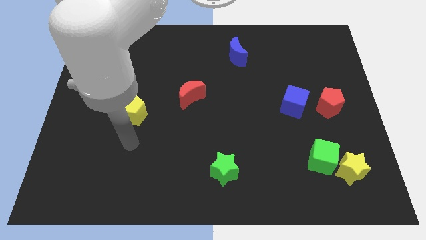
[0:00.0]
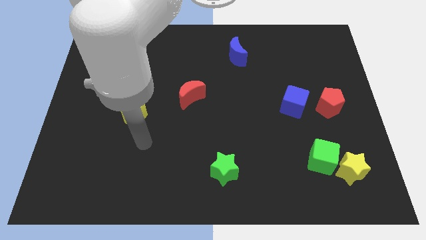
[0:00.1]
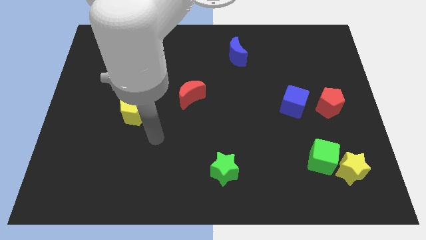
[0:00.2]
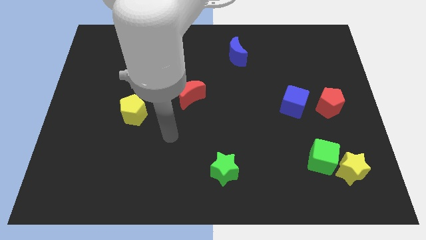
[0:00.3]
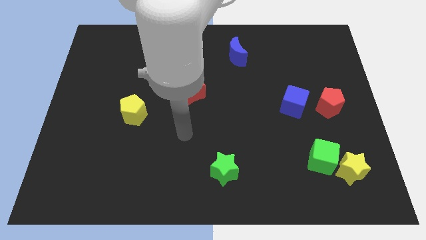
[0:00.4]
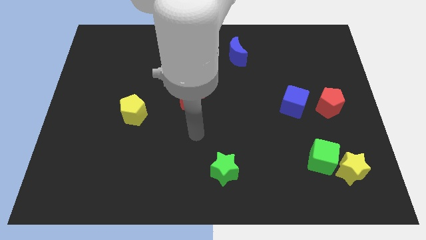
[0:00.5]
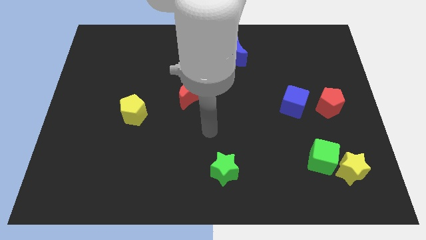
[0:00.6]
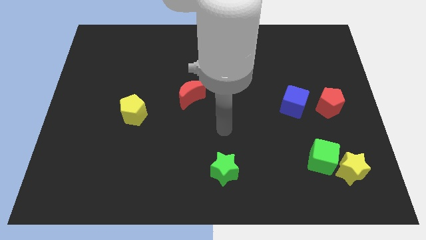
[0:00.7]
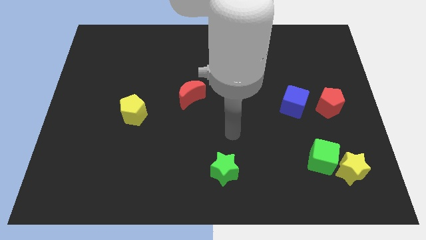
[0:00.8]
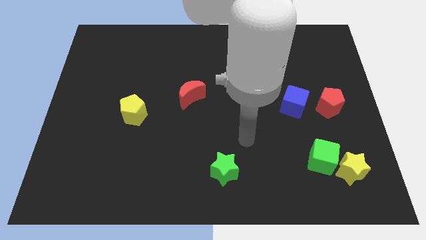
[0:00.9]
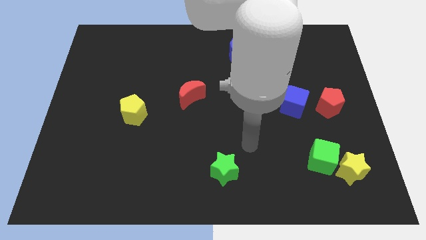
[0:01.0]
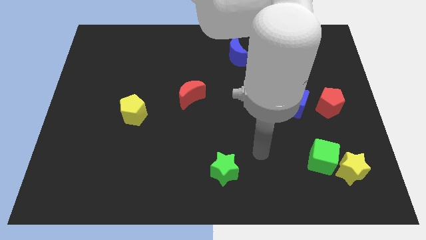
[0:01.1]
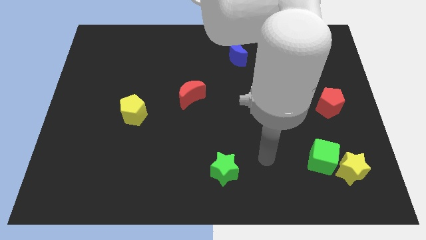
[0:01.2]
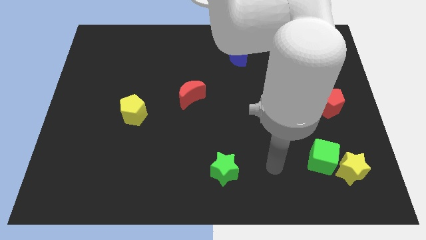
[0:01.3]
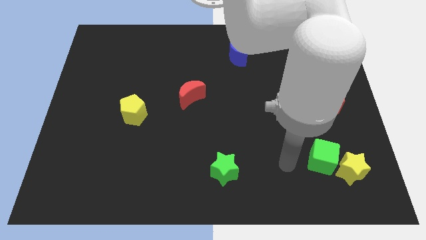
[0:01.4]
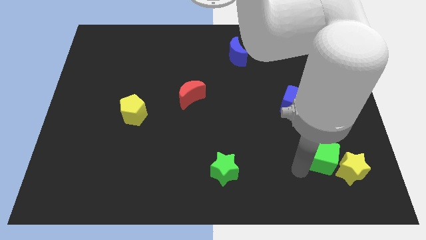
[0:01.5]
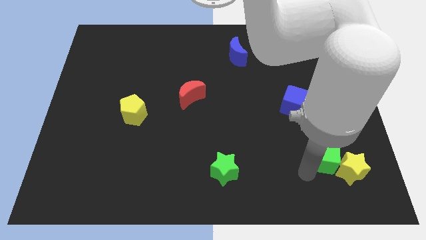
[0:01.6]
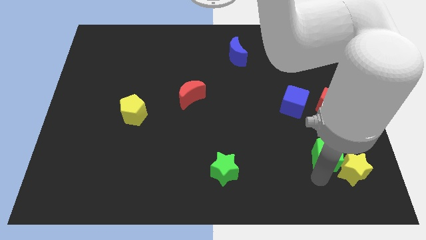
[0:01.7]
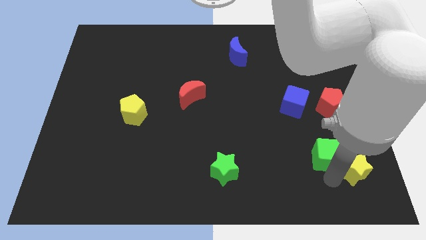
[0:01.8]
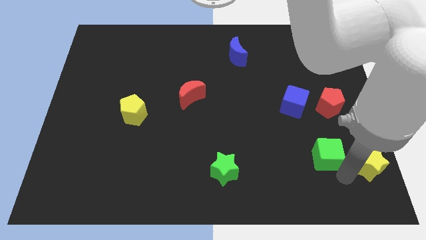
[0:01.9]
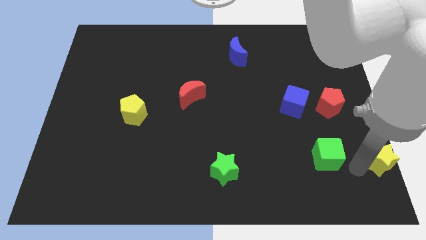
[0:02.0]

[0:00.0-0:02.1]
pull the green cube apart from the yellow star

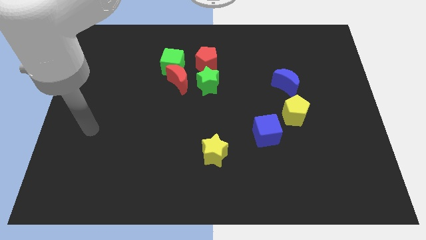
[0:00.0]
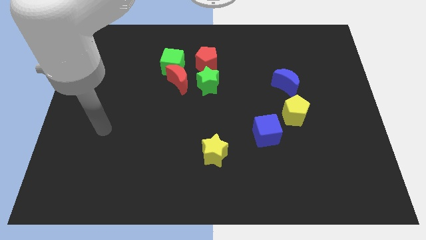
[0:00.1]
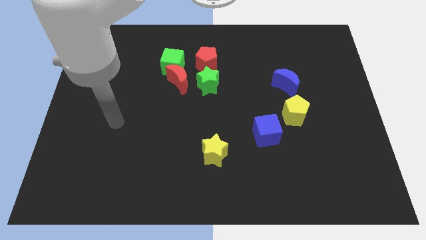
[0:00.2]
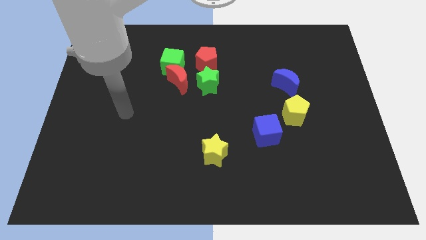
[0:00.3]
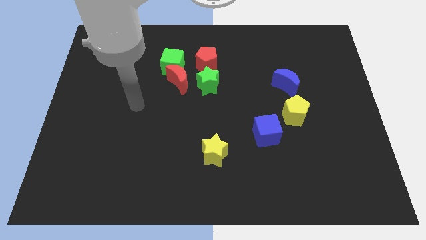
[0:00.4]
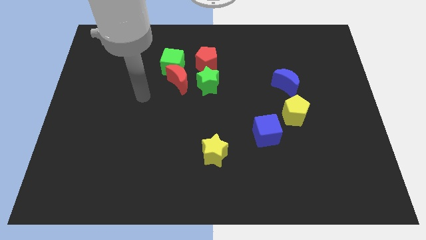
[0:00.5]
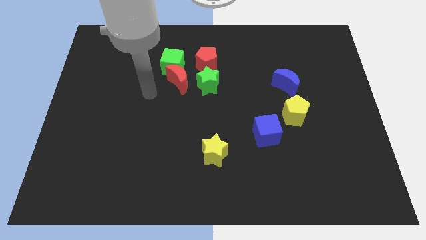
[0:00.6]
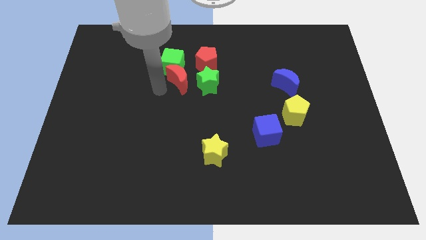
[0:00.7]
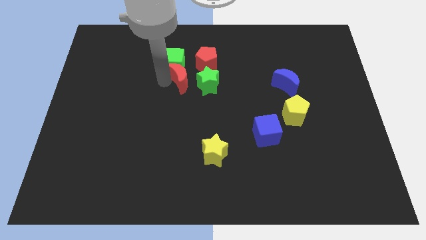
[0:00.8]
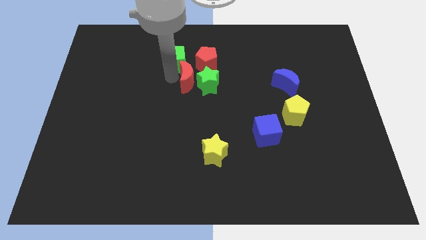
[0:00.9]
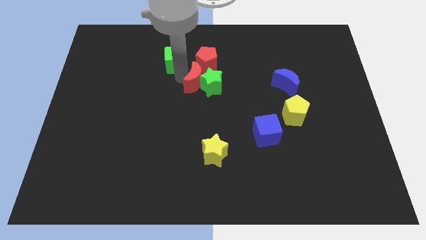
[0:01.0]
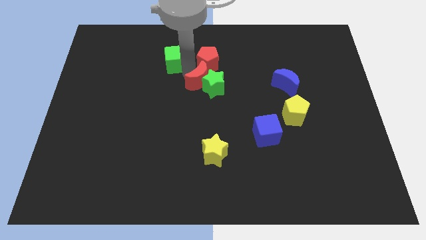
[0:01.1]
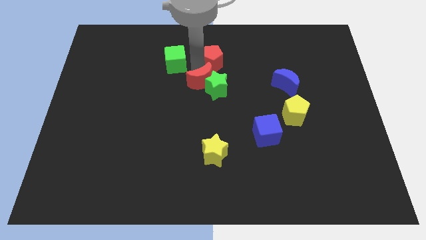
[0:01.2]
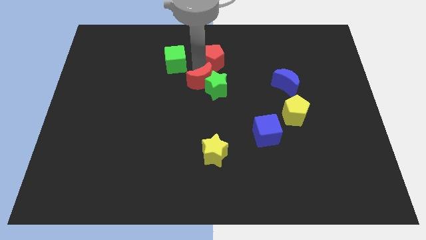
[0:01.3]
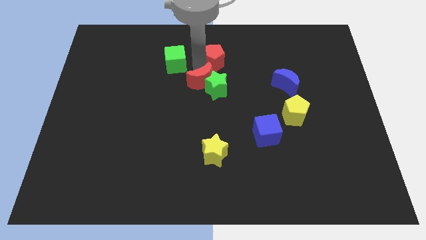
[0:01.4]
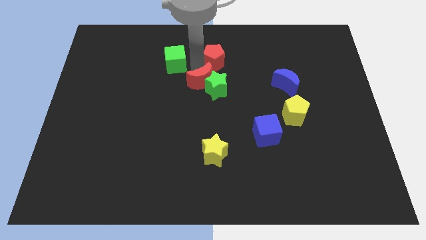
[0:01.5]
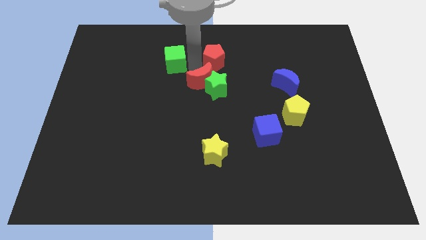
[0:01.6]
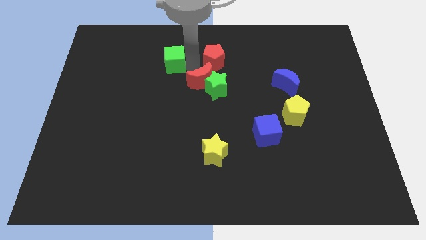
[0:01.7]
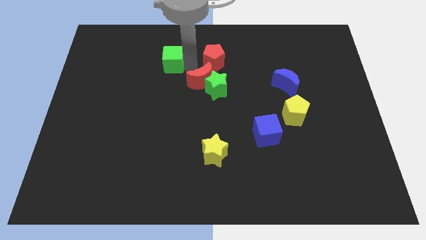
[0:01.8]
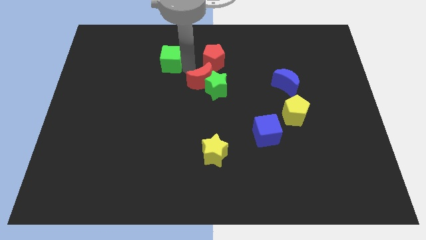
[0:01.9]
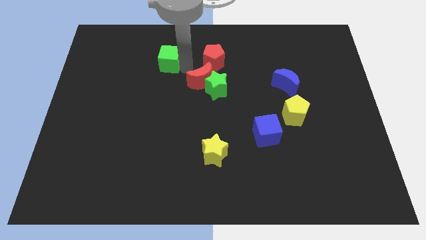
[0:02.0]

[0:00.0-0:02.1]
separate the green cube from the red moon and red pentagon

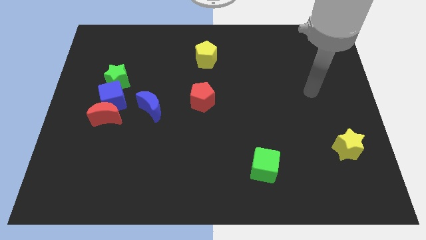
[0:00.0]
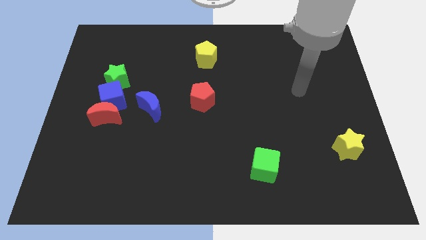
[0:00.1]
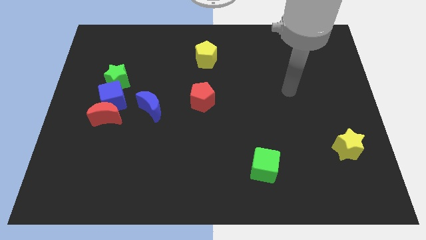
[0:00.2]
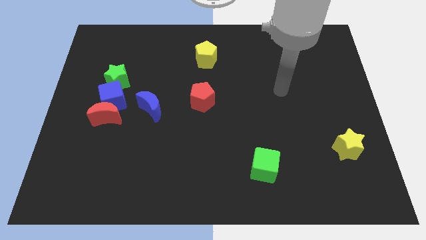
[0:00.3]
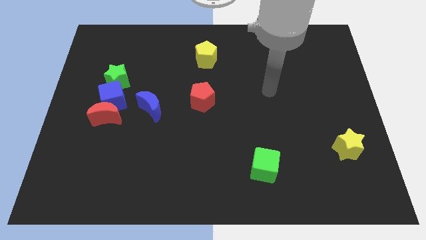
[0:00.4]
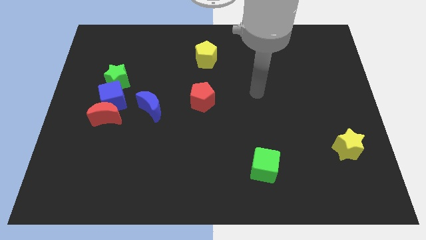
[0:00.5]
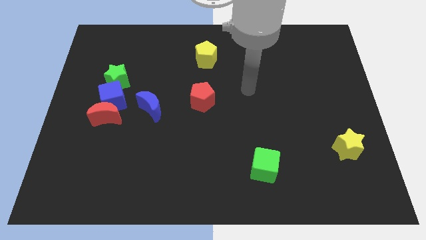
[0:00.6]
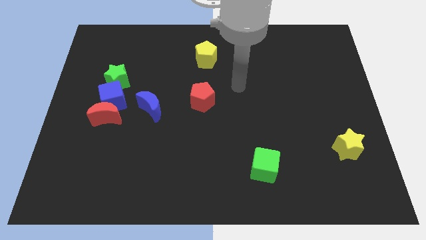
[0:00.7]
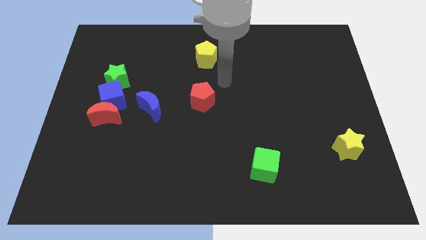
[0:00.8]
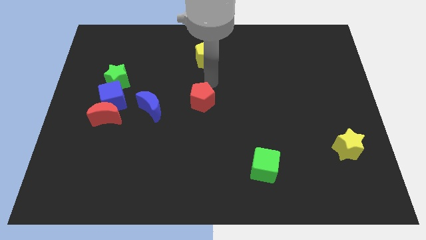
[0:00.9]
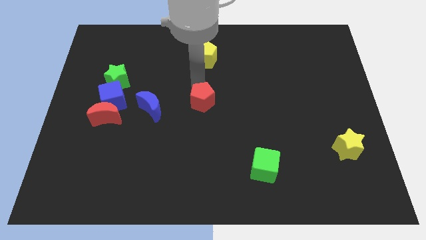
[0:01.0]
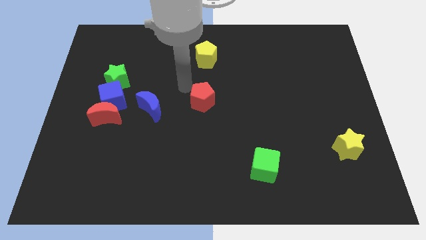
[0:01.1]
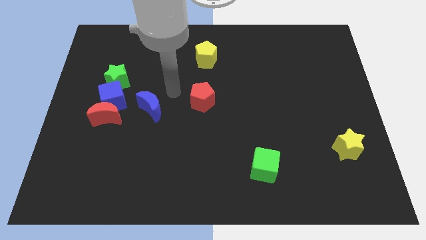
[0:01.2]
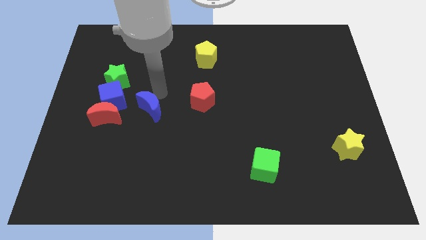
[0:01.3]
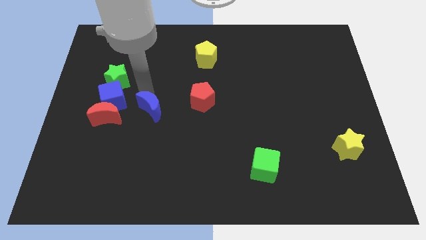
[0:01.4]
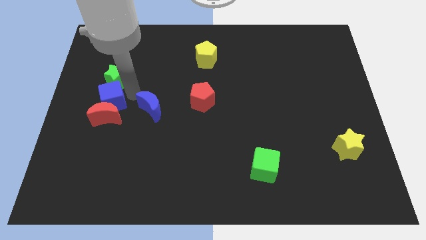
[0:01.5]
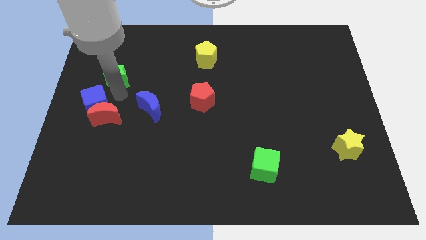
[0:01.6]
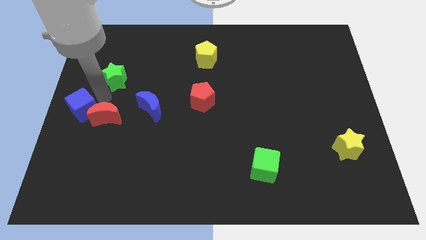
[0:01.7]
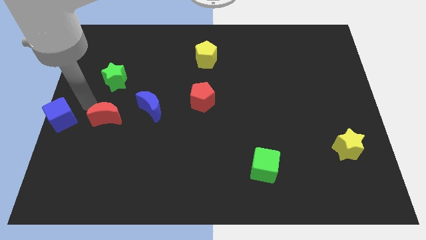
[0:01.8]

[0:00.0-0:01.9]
move the red moon away from the blue cube

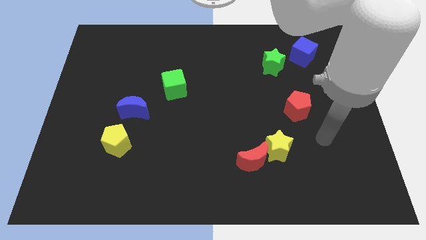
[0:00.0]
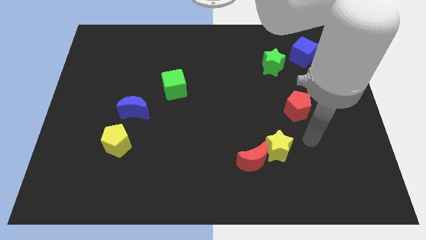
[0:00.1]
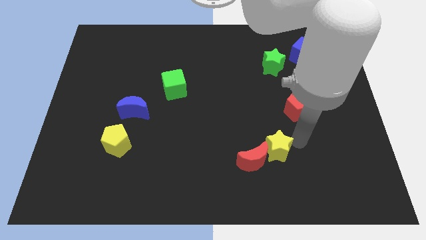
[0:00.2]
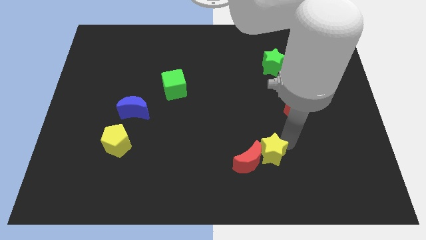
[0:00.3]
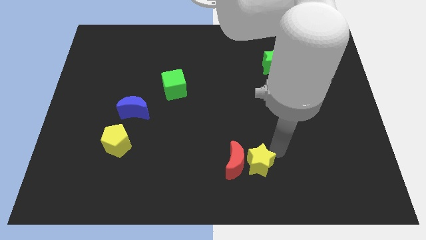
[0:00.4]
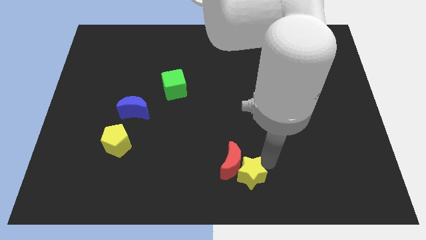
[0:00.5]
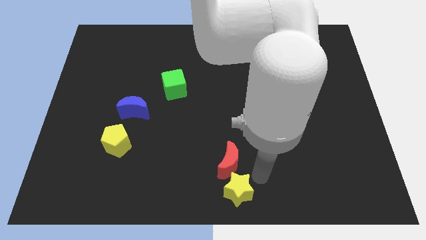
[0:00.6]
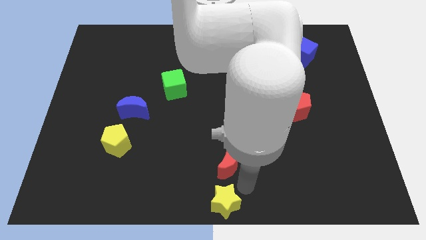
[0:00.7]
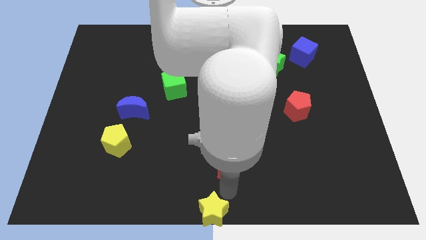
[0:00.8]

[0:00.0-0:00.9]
pull the red moon apart from the yellow star

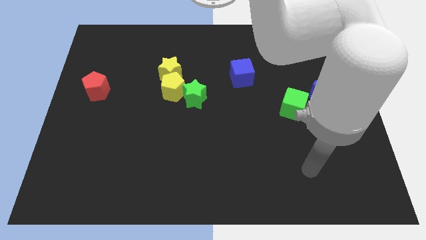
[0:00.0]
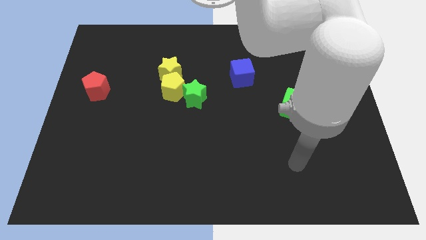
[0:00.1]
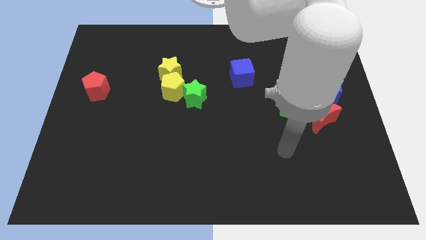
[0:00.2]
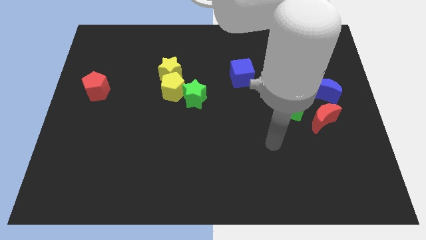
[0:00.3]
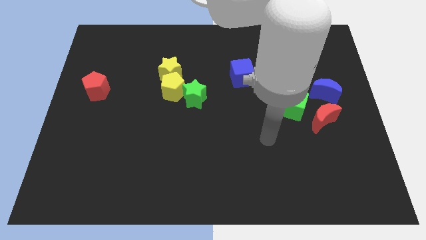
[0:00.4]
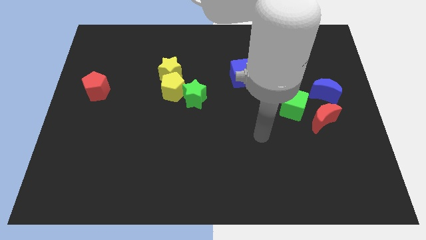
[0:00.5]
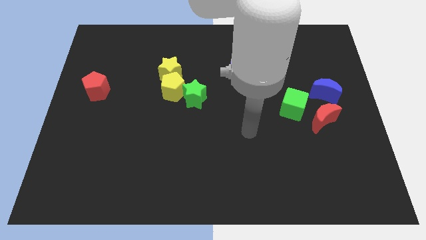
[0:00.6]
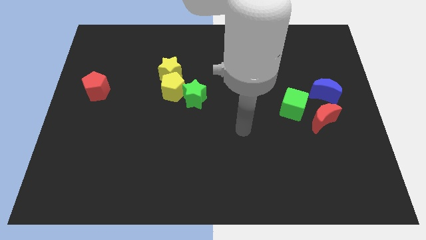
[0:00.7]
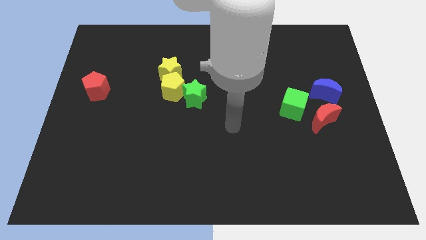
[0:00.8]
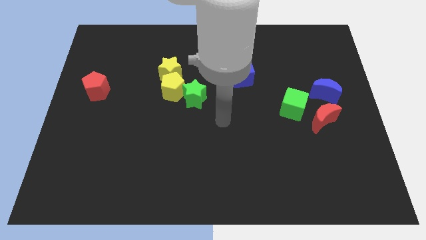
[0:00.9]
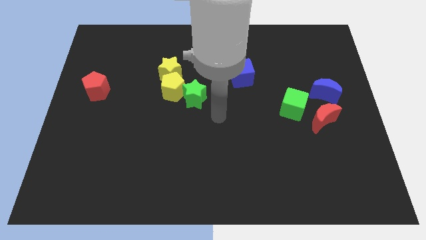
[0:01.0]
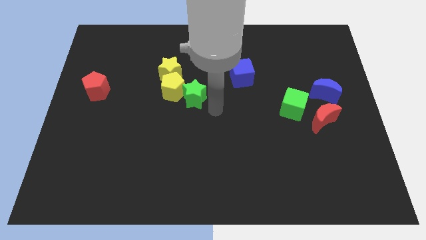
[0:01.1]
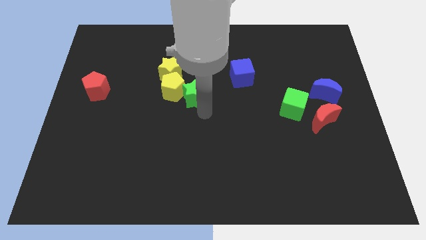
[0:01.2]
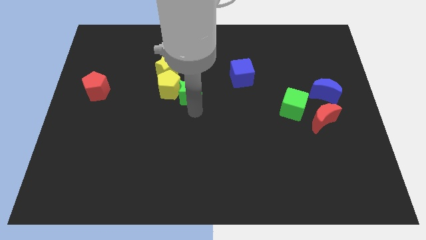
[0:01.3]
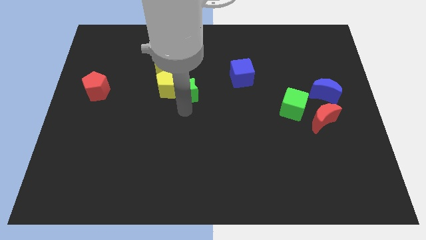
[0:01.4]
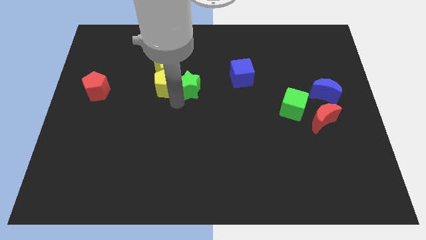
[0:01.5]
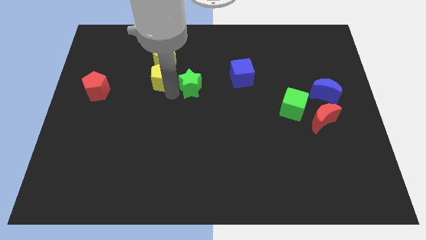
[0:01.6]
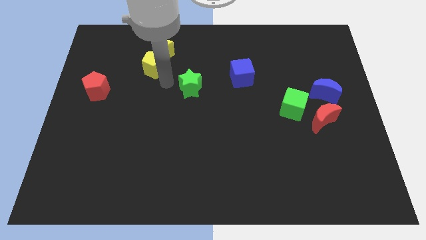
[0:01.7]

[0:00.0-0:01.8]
separate the green star from the yellow pentagon

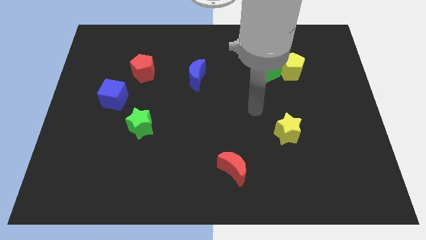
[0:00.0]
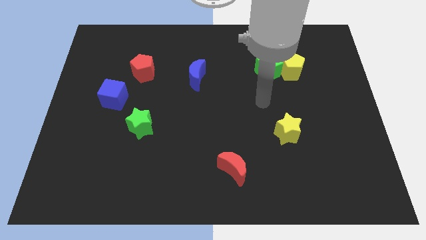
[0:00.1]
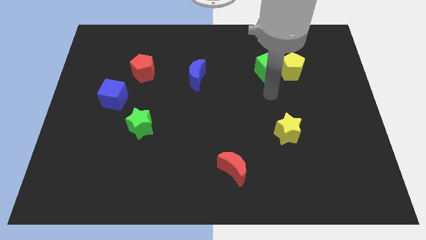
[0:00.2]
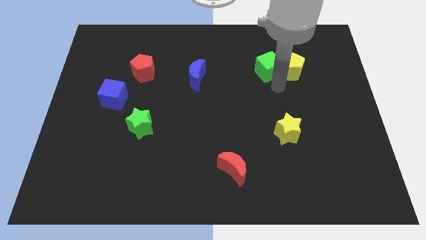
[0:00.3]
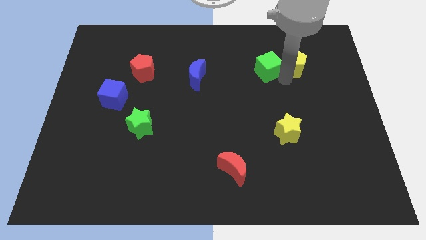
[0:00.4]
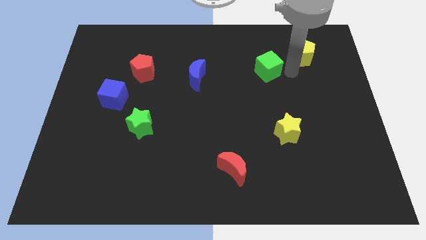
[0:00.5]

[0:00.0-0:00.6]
separate the green cube from the yellow pentagon

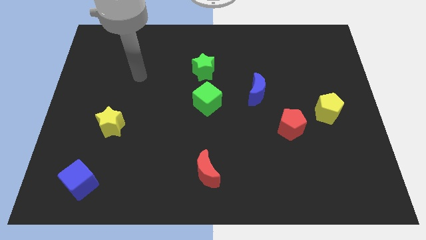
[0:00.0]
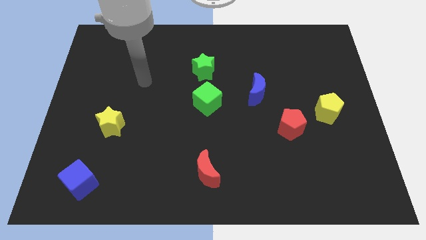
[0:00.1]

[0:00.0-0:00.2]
move the red pentagon away from the yellow pentagon
